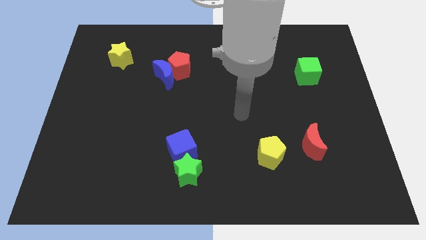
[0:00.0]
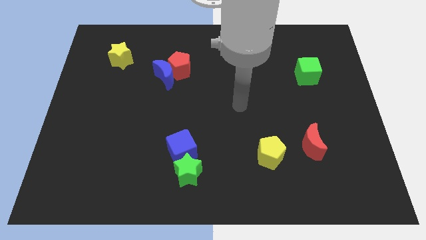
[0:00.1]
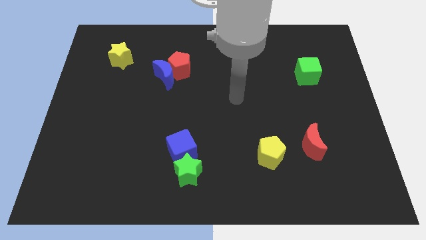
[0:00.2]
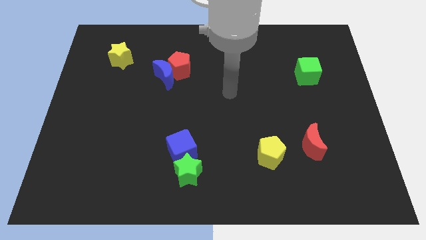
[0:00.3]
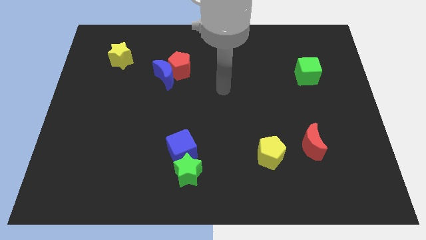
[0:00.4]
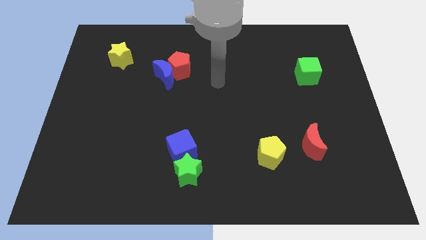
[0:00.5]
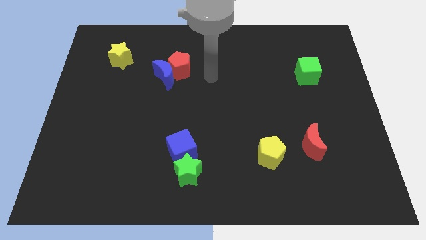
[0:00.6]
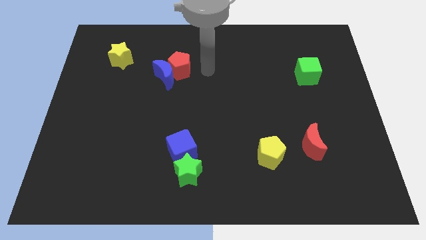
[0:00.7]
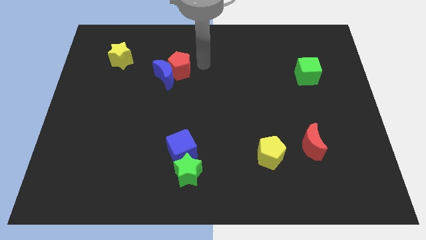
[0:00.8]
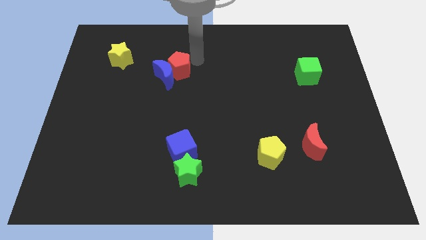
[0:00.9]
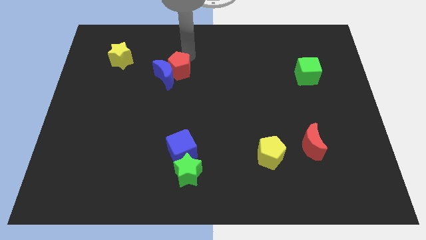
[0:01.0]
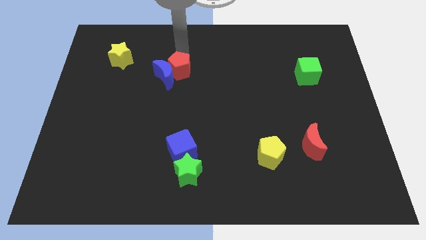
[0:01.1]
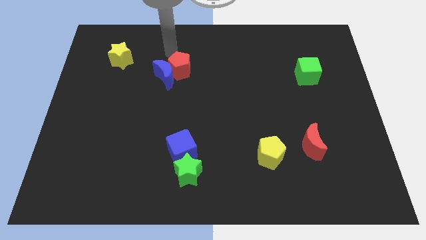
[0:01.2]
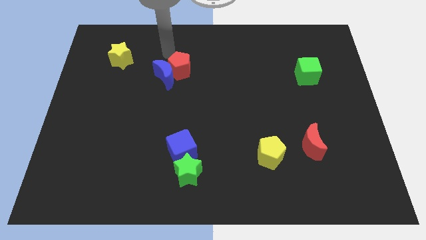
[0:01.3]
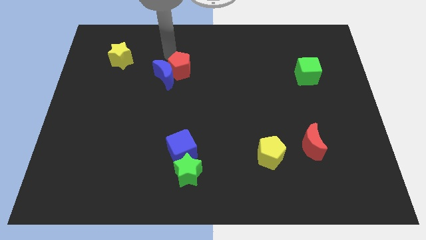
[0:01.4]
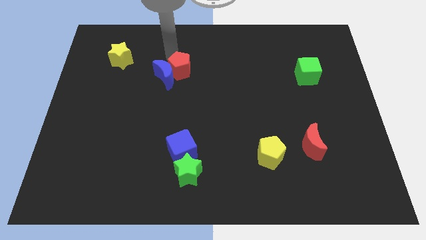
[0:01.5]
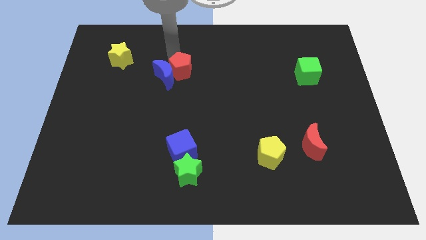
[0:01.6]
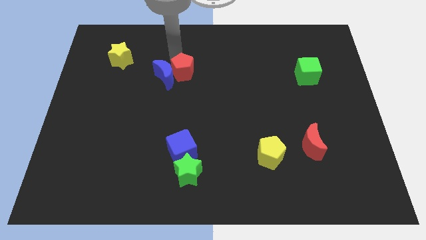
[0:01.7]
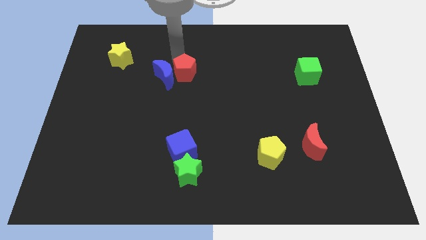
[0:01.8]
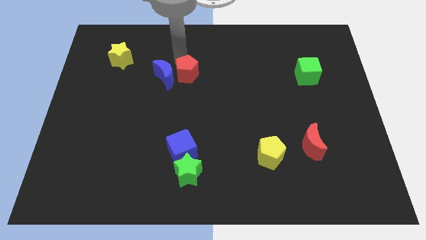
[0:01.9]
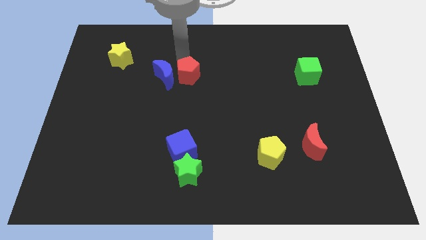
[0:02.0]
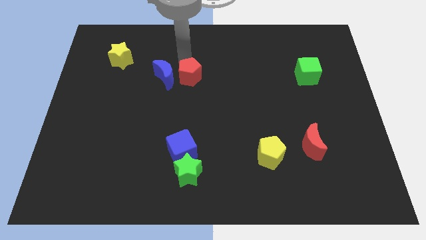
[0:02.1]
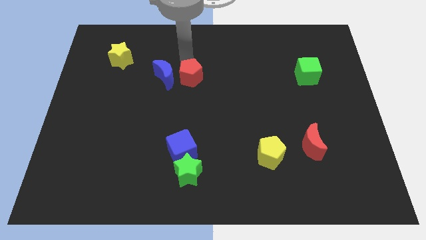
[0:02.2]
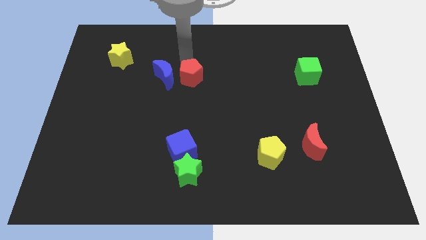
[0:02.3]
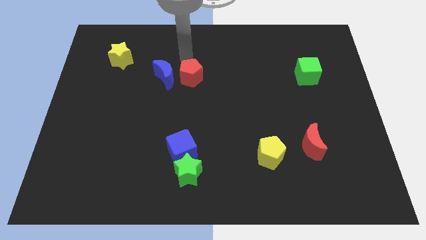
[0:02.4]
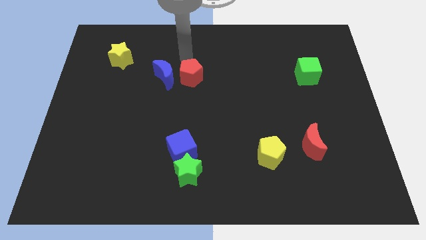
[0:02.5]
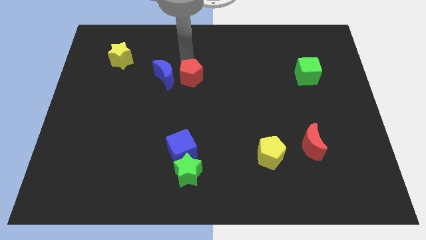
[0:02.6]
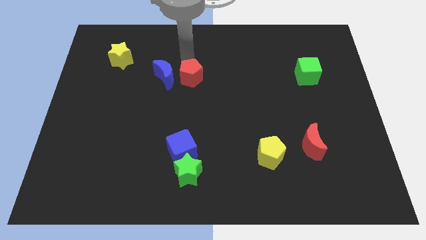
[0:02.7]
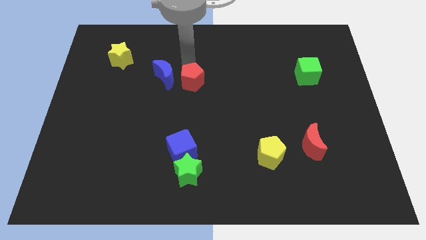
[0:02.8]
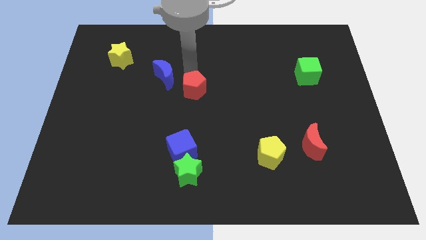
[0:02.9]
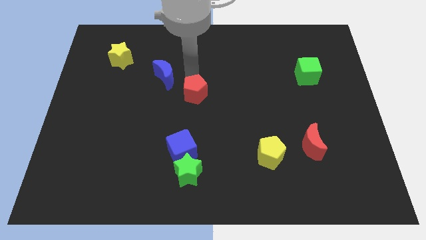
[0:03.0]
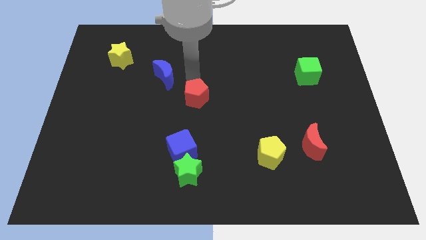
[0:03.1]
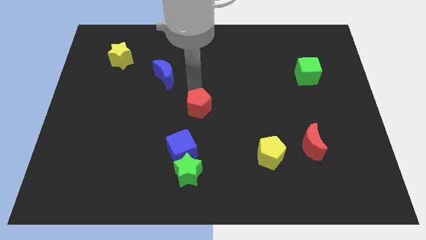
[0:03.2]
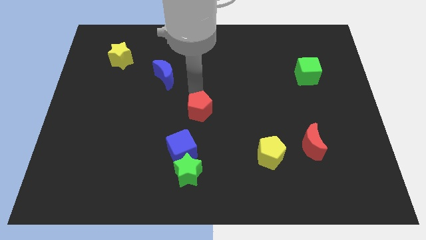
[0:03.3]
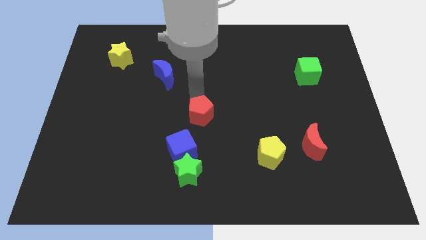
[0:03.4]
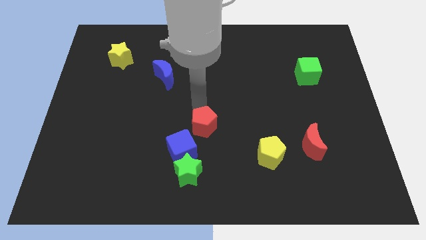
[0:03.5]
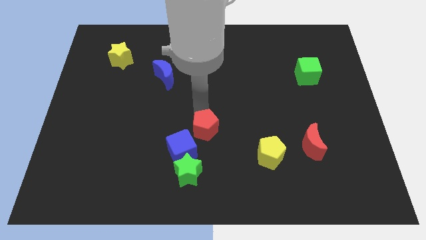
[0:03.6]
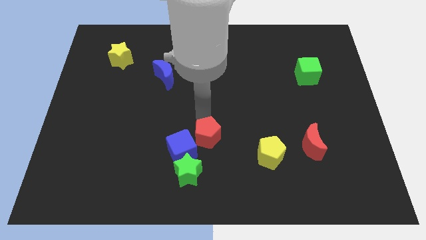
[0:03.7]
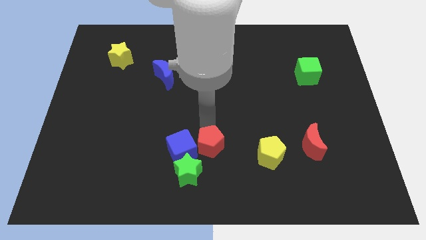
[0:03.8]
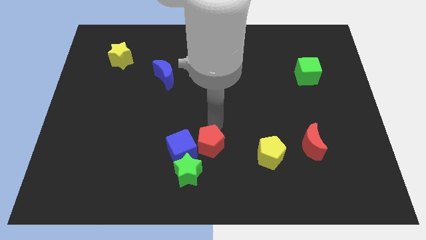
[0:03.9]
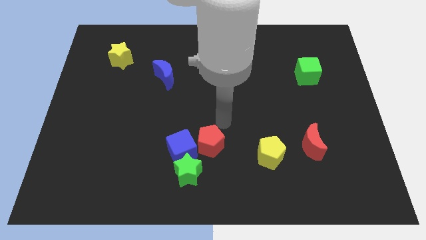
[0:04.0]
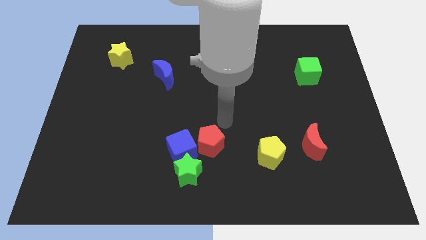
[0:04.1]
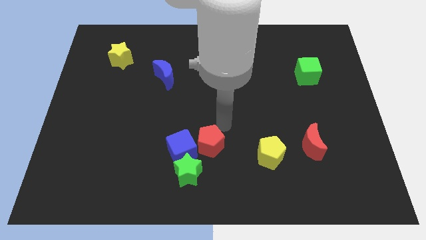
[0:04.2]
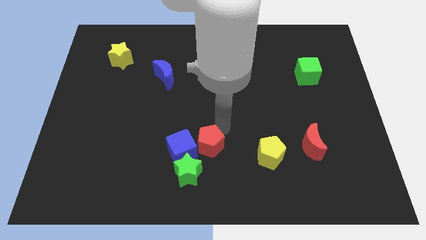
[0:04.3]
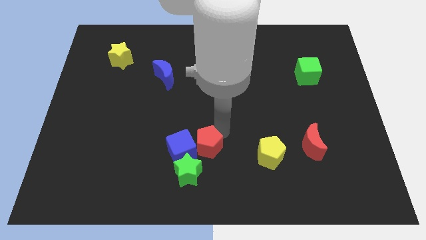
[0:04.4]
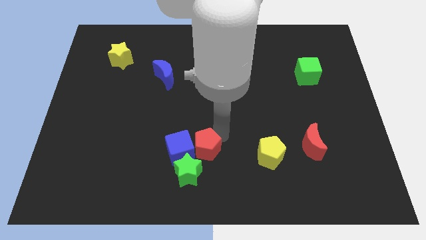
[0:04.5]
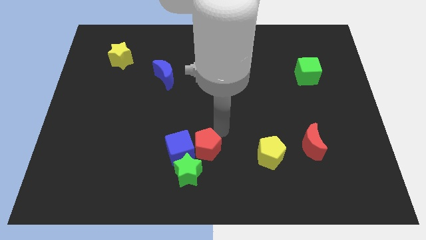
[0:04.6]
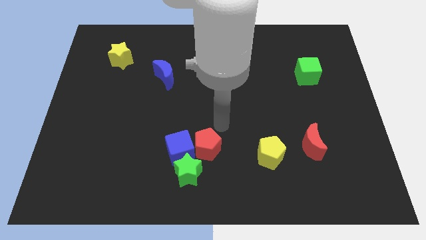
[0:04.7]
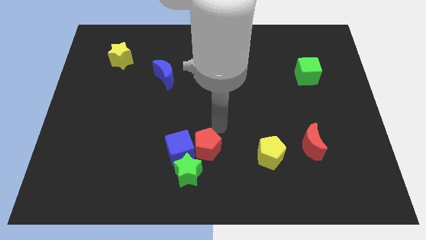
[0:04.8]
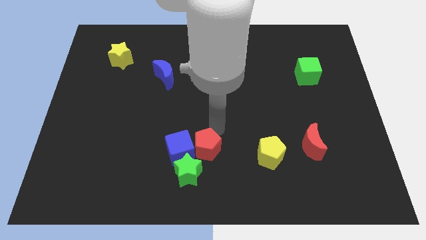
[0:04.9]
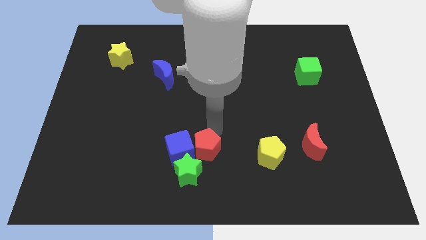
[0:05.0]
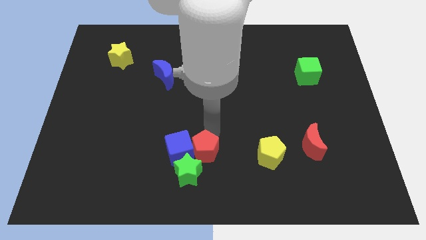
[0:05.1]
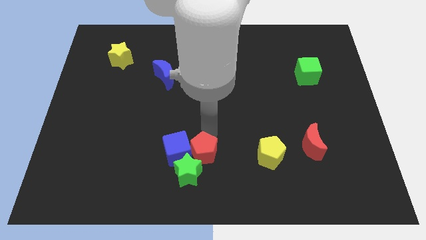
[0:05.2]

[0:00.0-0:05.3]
slide the red pentagon next to the green star

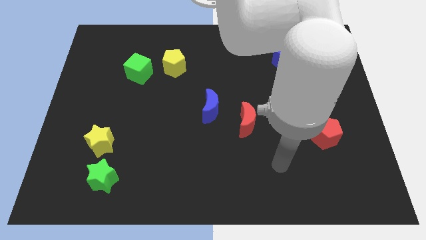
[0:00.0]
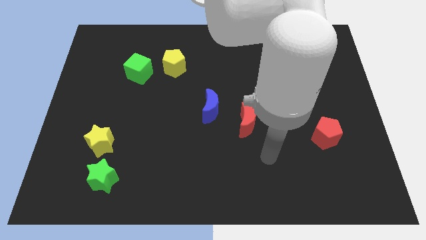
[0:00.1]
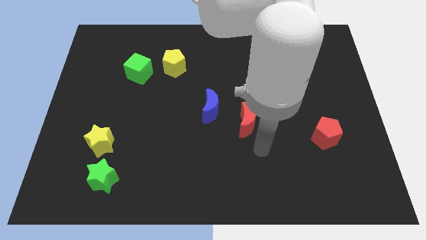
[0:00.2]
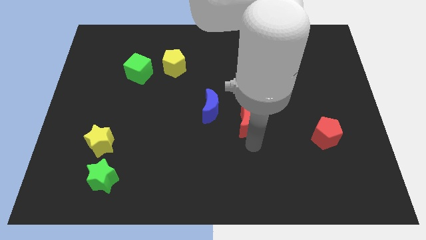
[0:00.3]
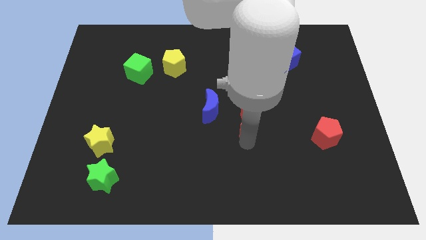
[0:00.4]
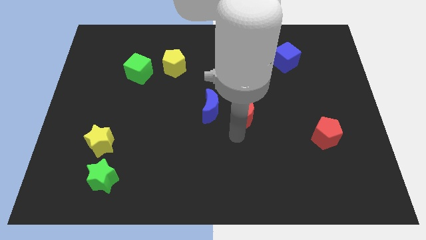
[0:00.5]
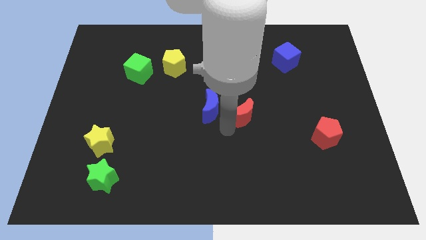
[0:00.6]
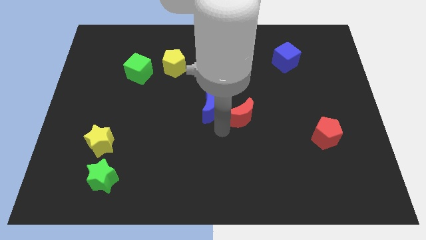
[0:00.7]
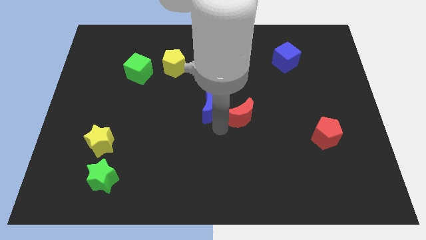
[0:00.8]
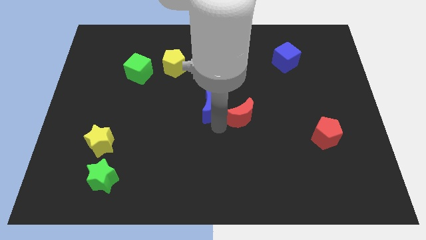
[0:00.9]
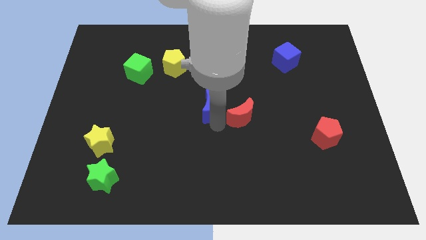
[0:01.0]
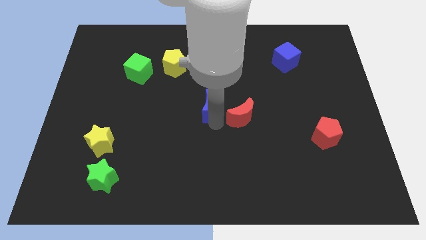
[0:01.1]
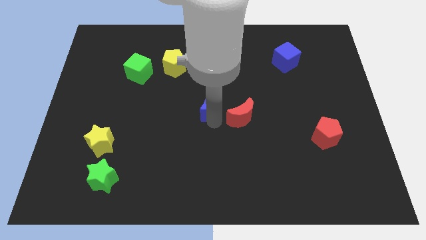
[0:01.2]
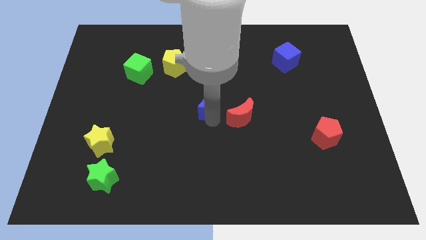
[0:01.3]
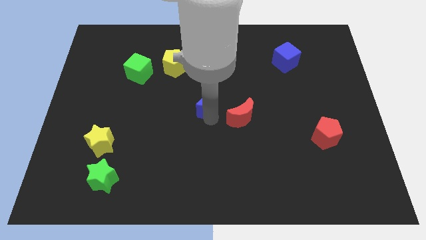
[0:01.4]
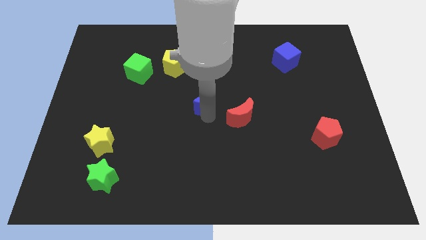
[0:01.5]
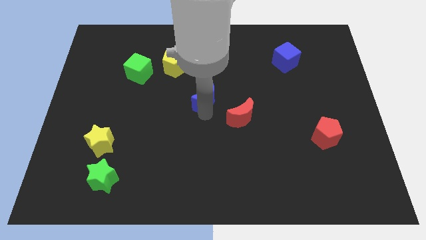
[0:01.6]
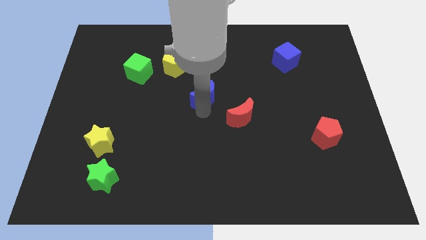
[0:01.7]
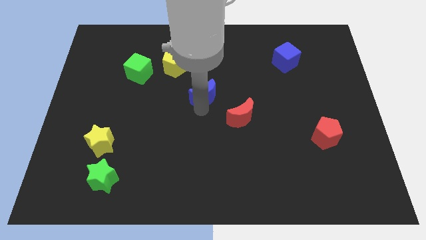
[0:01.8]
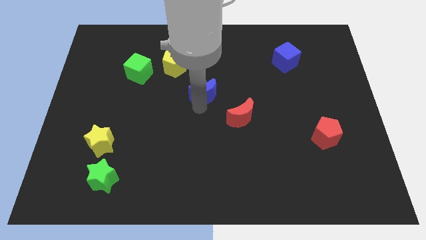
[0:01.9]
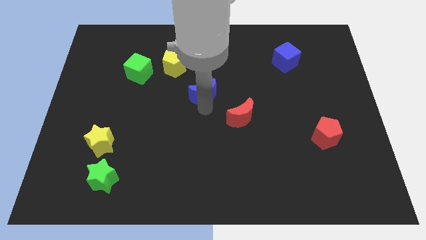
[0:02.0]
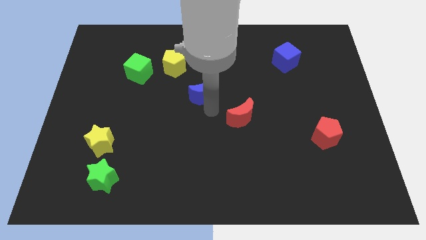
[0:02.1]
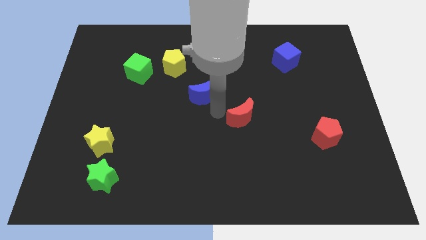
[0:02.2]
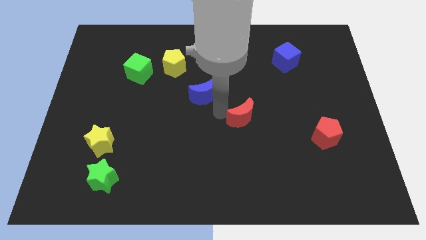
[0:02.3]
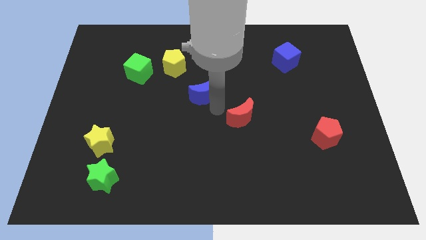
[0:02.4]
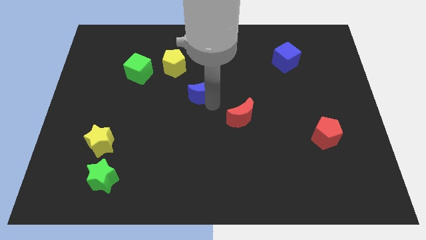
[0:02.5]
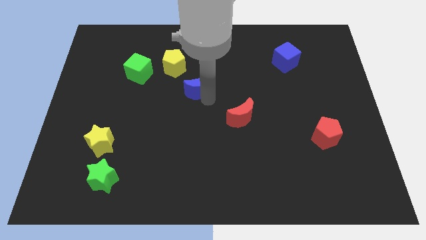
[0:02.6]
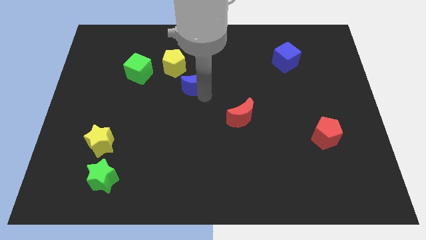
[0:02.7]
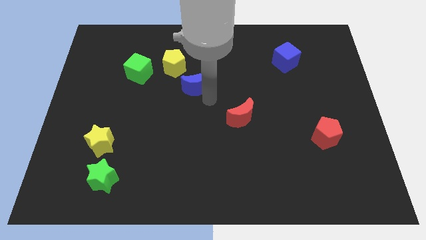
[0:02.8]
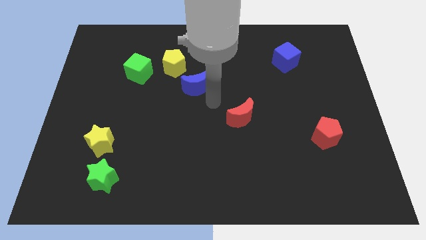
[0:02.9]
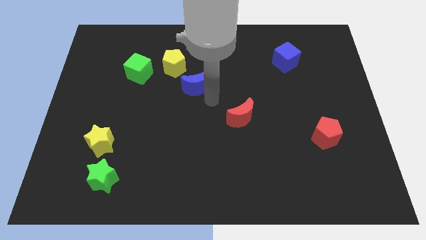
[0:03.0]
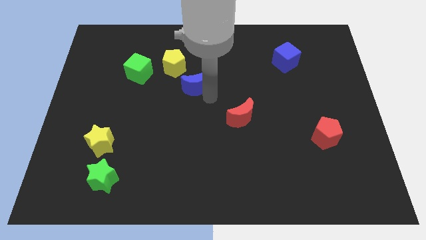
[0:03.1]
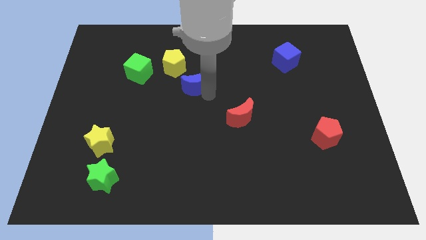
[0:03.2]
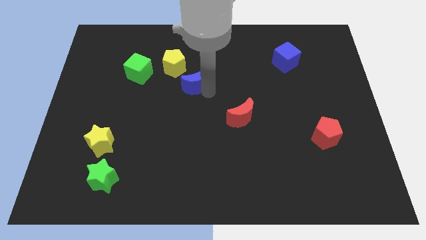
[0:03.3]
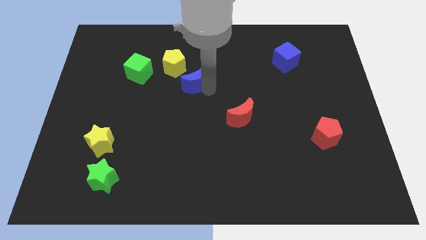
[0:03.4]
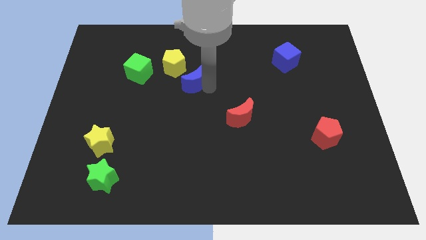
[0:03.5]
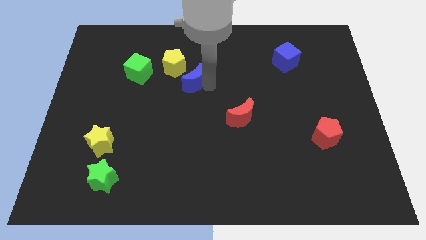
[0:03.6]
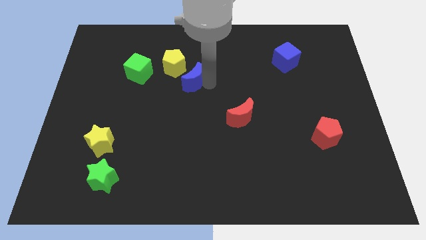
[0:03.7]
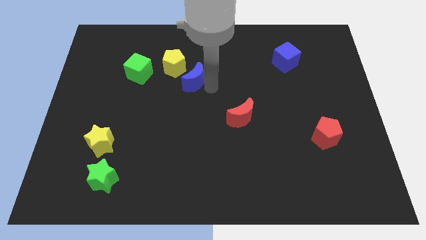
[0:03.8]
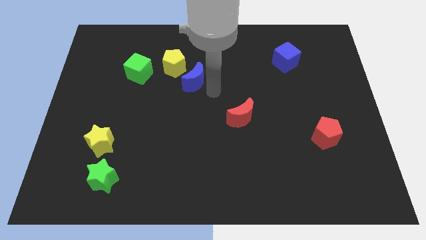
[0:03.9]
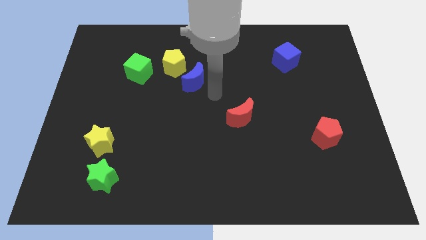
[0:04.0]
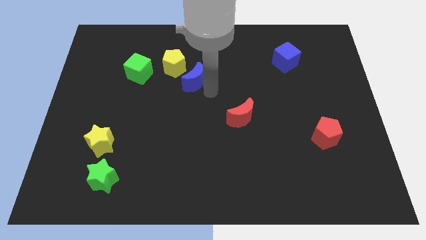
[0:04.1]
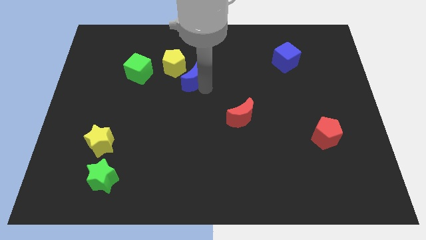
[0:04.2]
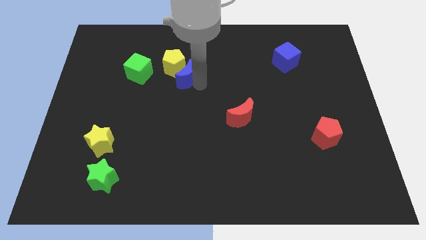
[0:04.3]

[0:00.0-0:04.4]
slide the blue moon towards the yellow pentagon
